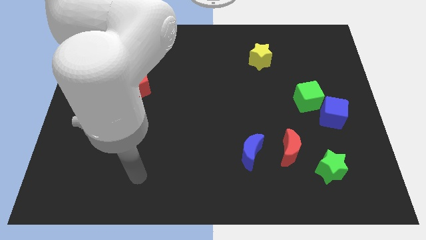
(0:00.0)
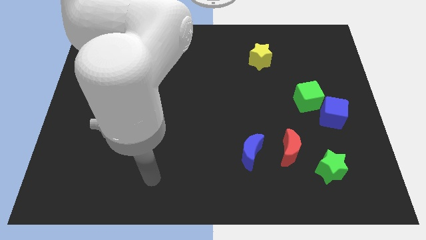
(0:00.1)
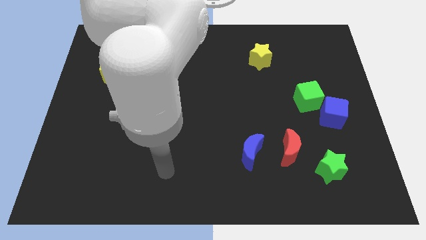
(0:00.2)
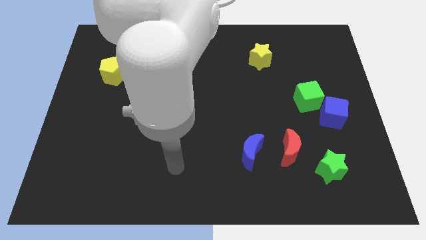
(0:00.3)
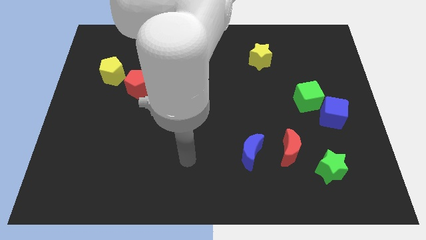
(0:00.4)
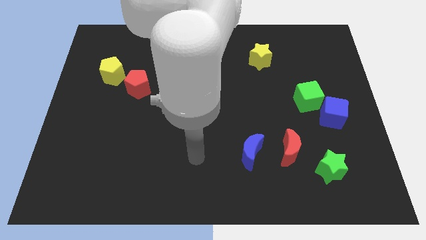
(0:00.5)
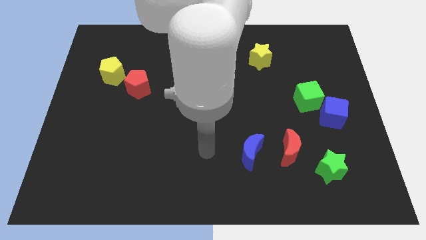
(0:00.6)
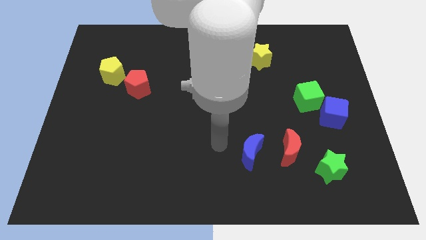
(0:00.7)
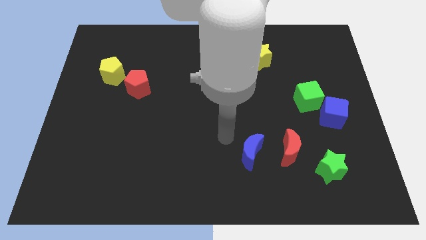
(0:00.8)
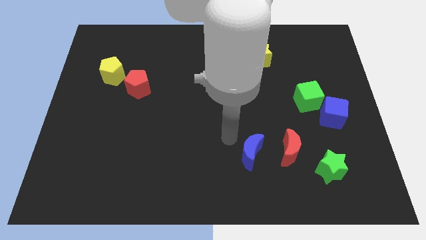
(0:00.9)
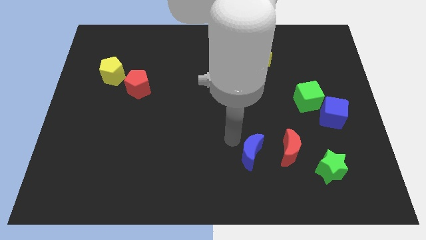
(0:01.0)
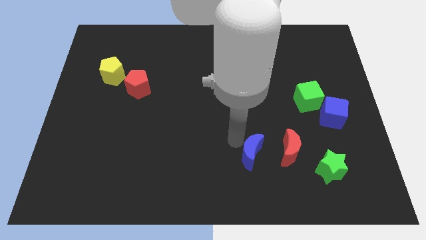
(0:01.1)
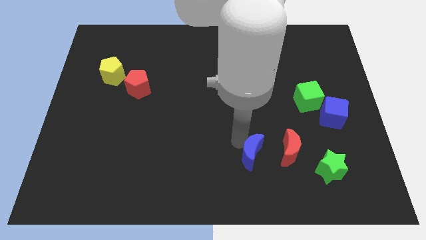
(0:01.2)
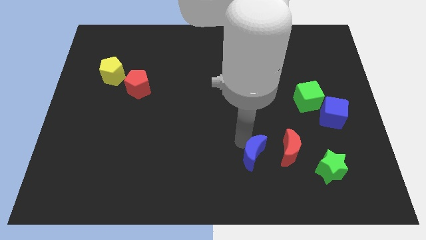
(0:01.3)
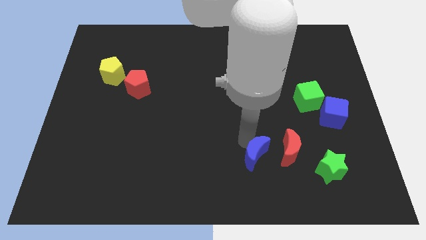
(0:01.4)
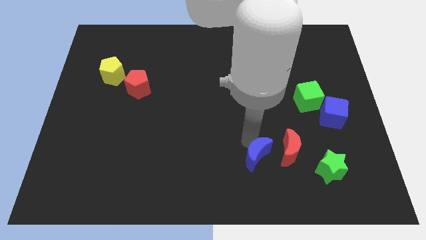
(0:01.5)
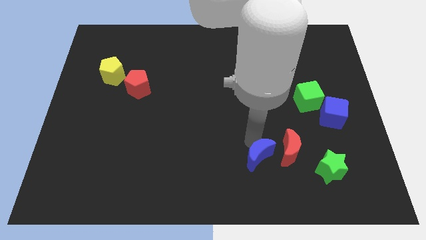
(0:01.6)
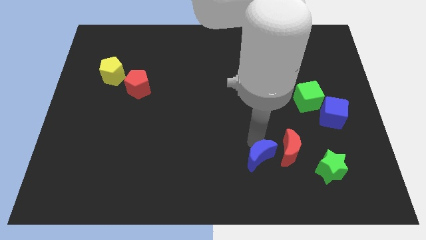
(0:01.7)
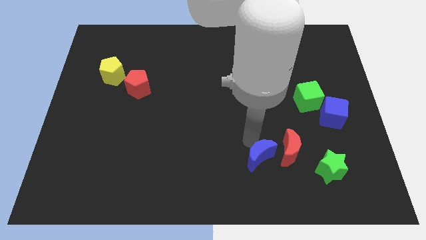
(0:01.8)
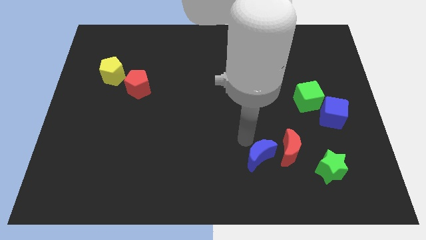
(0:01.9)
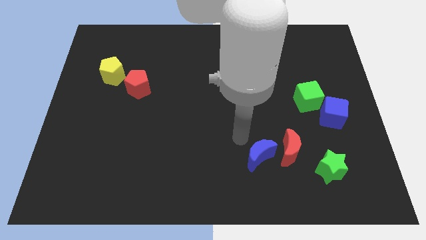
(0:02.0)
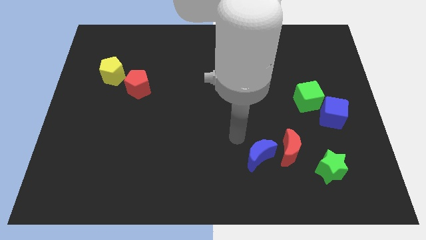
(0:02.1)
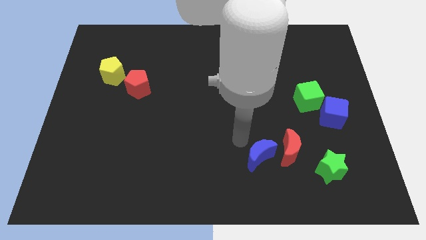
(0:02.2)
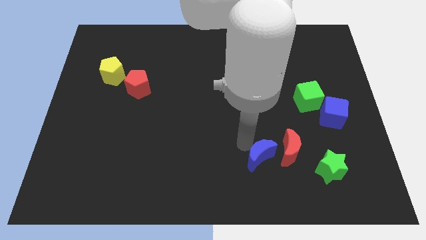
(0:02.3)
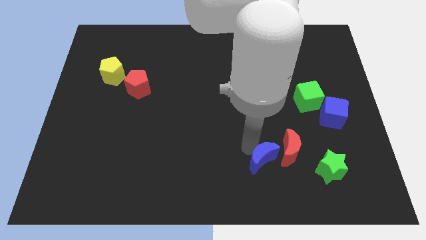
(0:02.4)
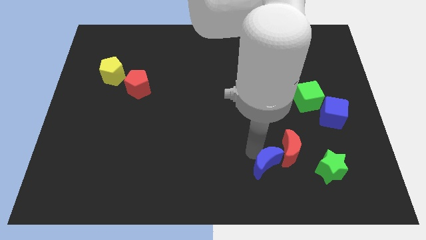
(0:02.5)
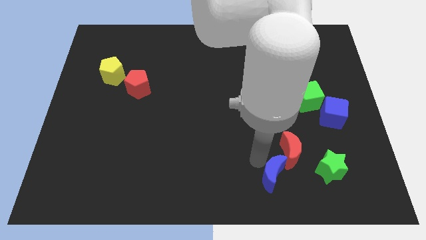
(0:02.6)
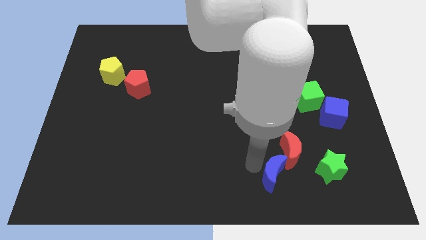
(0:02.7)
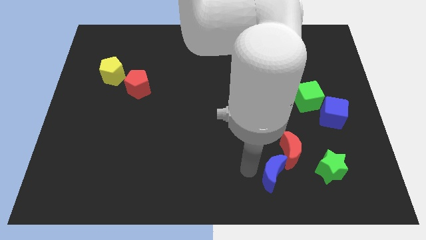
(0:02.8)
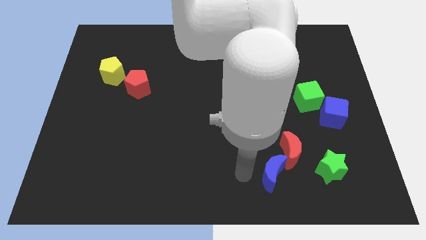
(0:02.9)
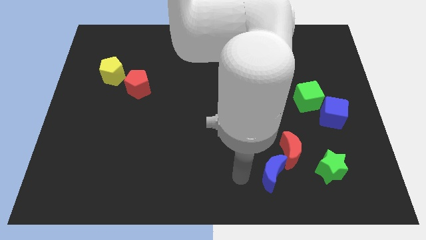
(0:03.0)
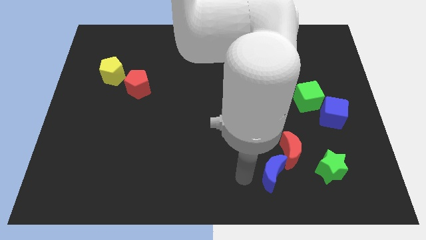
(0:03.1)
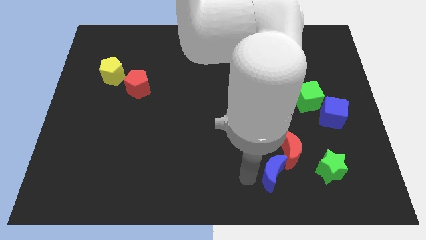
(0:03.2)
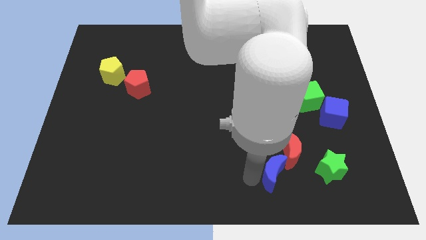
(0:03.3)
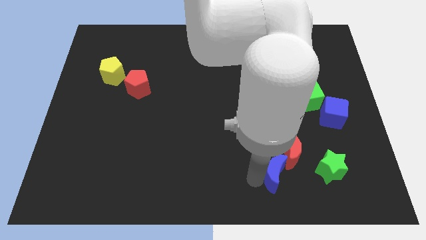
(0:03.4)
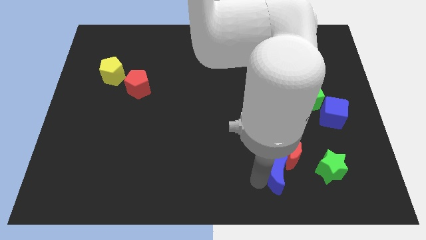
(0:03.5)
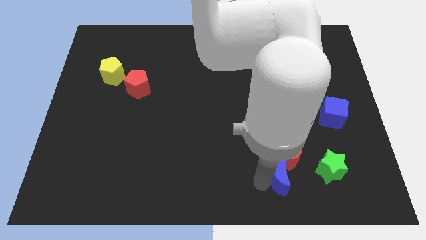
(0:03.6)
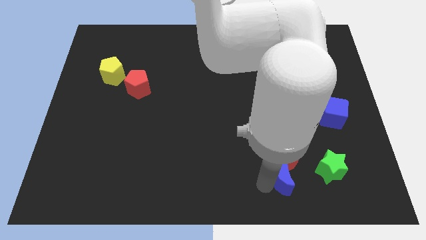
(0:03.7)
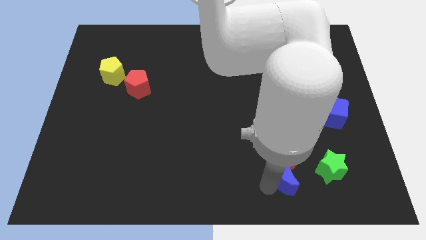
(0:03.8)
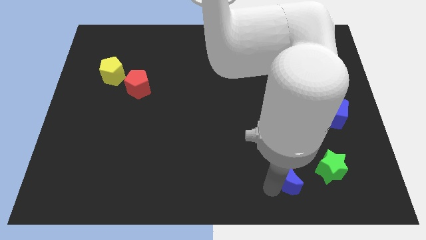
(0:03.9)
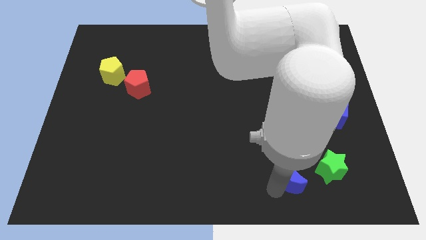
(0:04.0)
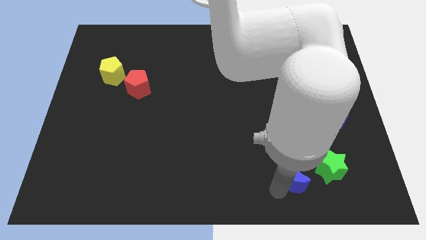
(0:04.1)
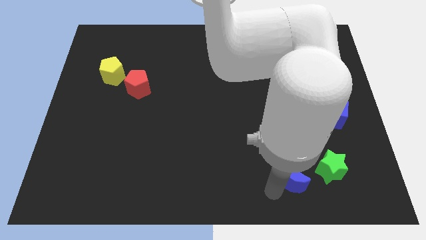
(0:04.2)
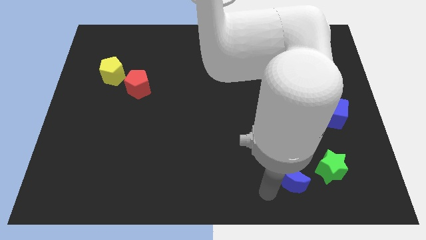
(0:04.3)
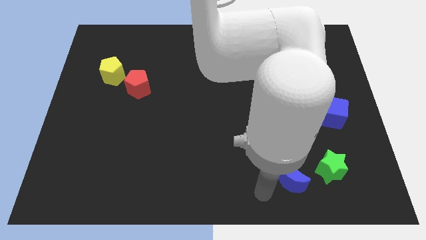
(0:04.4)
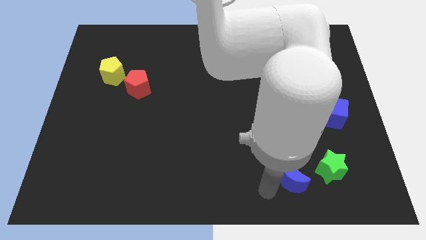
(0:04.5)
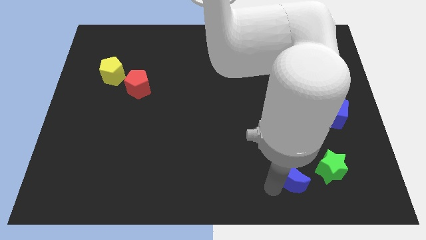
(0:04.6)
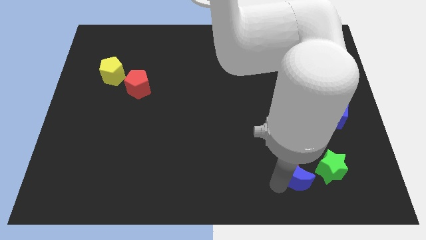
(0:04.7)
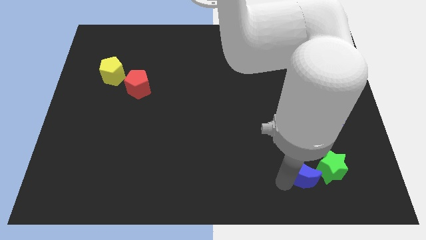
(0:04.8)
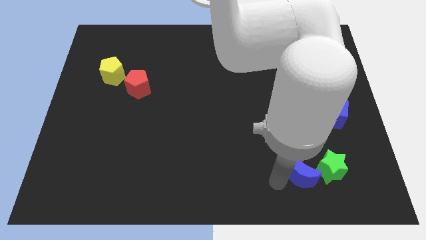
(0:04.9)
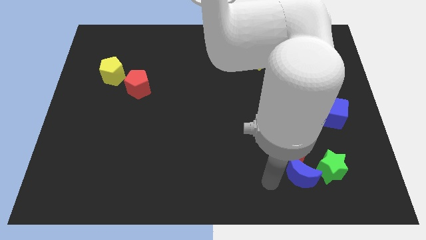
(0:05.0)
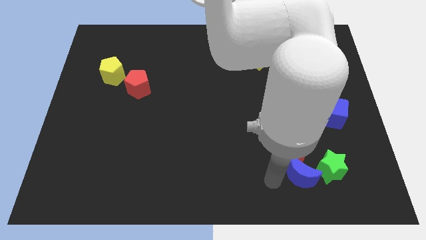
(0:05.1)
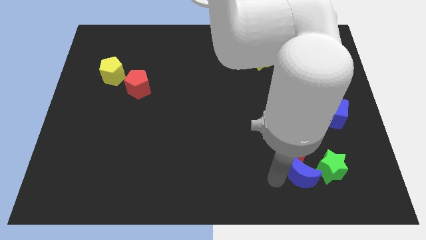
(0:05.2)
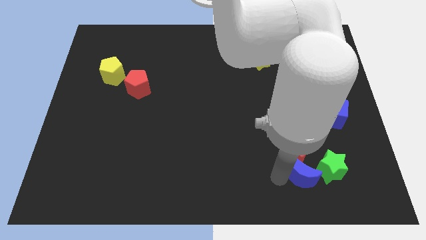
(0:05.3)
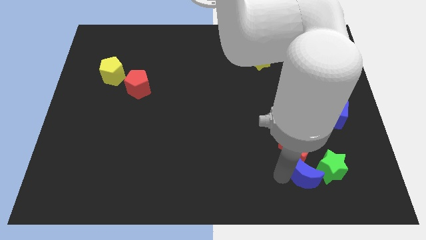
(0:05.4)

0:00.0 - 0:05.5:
push the blue moon to the green star

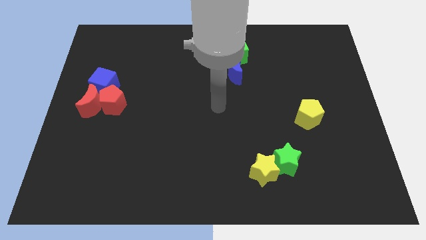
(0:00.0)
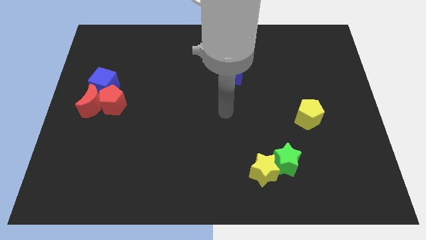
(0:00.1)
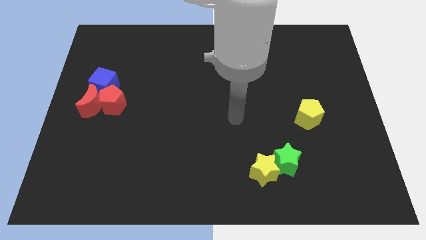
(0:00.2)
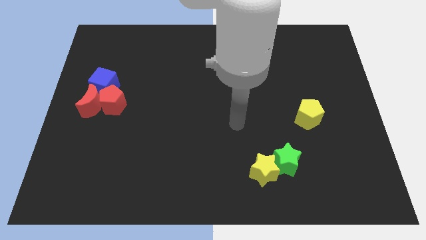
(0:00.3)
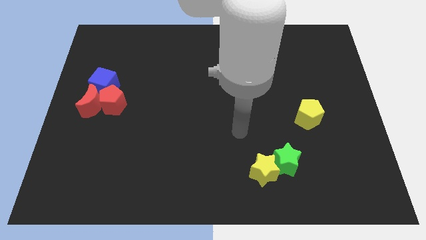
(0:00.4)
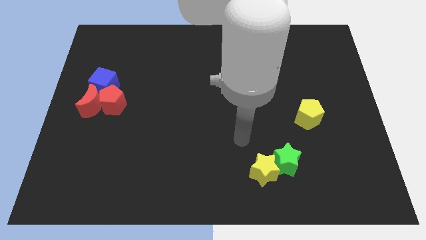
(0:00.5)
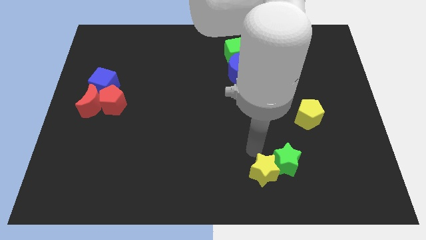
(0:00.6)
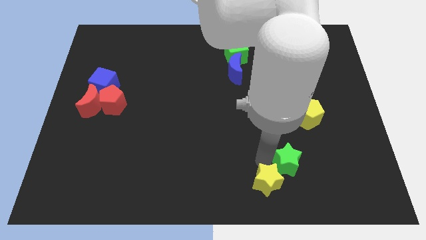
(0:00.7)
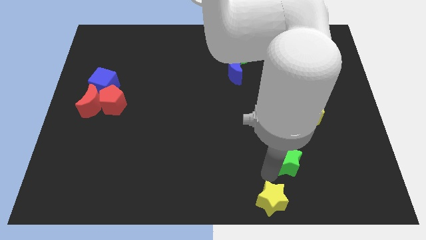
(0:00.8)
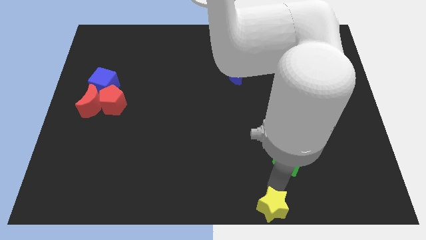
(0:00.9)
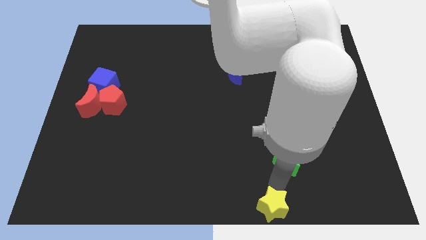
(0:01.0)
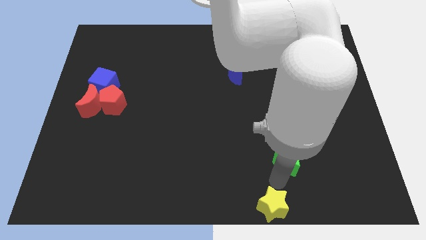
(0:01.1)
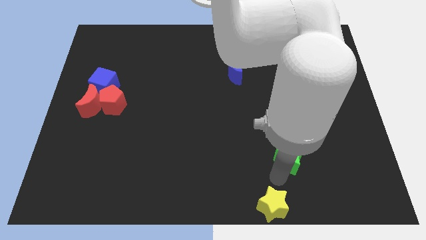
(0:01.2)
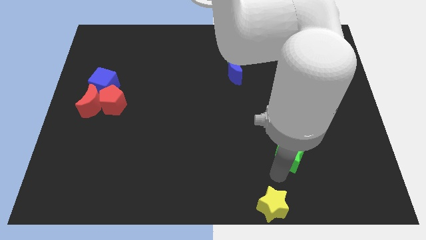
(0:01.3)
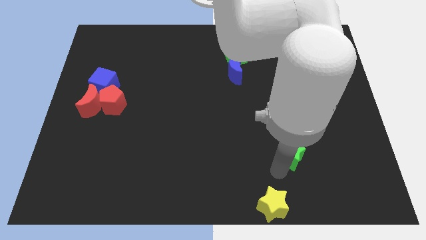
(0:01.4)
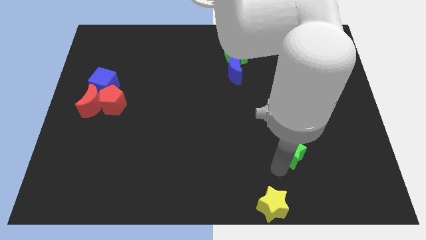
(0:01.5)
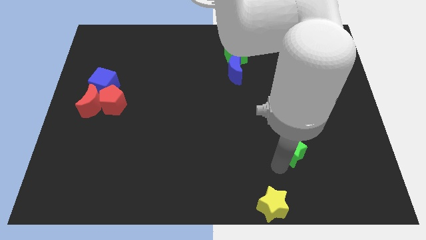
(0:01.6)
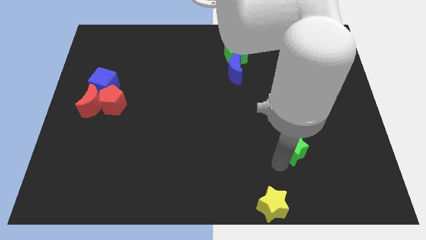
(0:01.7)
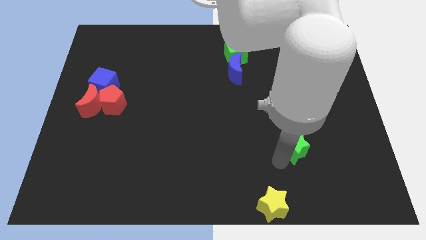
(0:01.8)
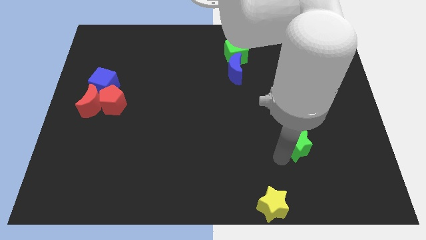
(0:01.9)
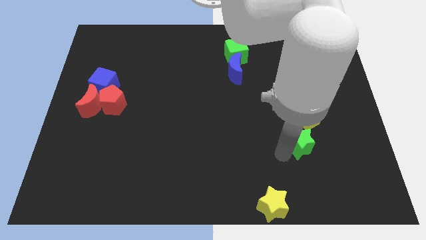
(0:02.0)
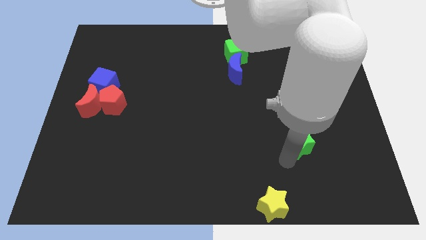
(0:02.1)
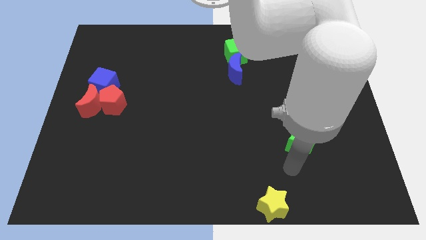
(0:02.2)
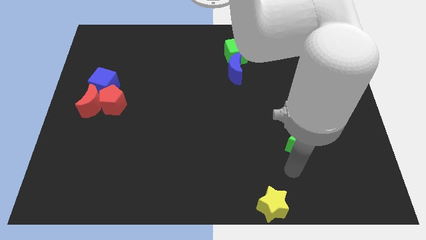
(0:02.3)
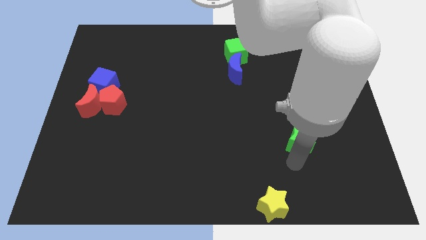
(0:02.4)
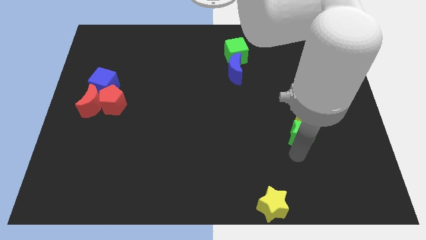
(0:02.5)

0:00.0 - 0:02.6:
slide the green star to the yellow pentagon
